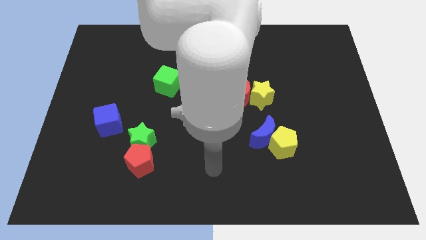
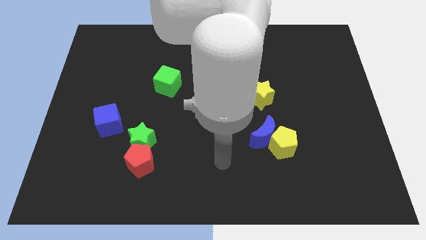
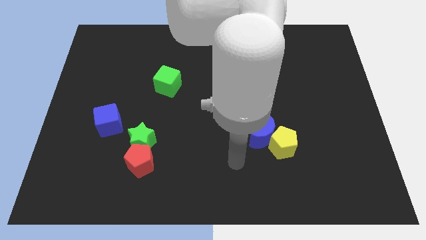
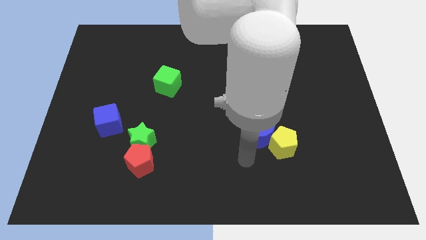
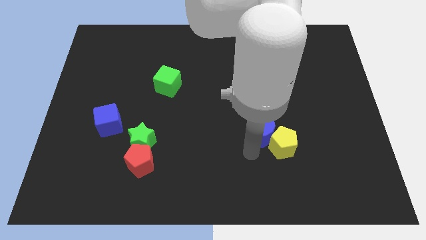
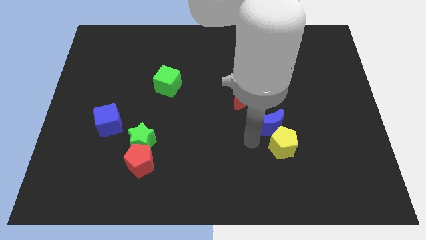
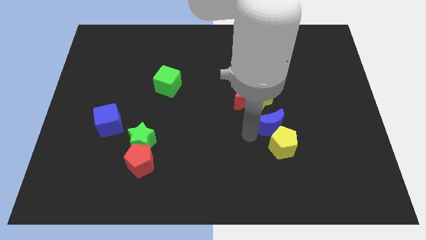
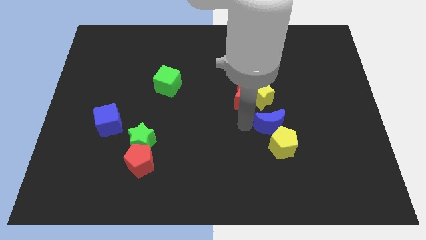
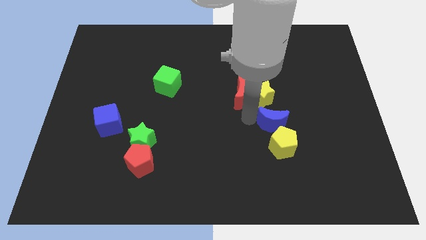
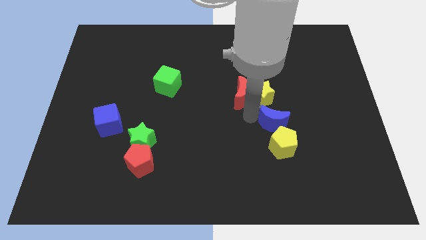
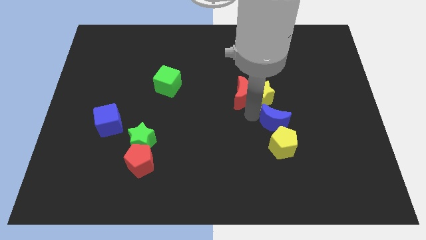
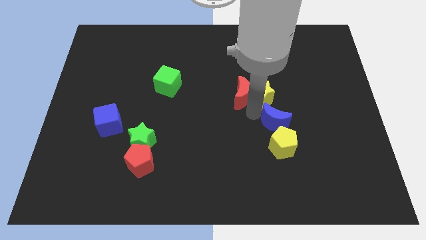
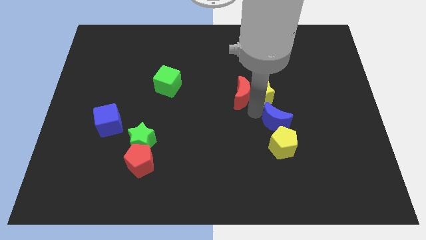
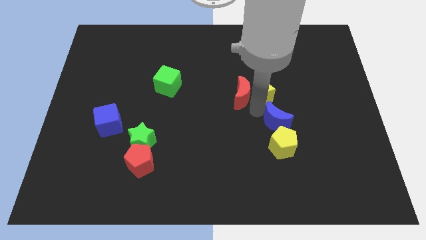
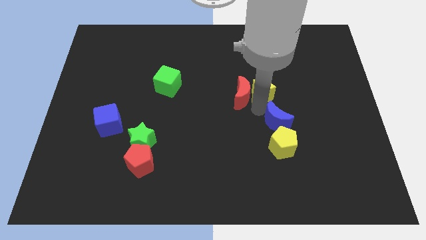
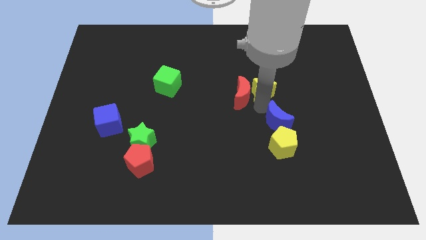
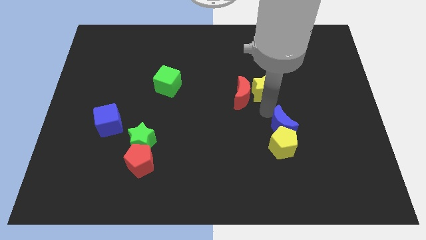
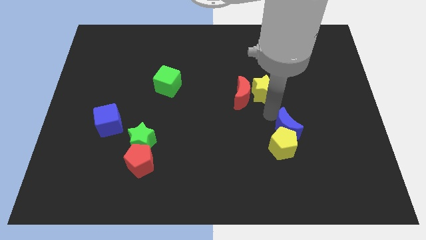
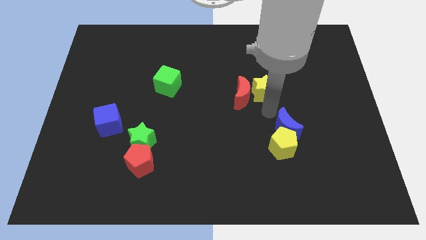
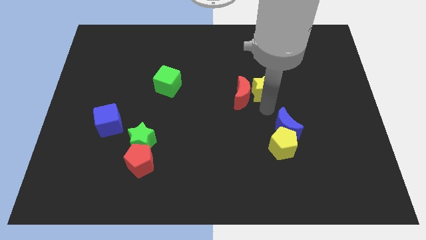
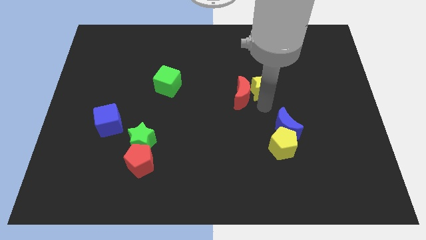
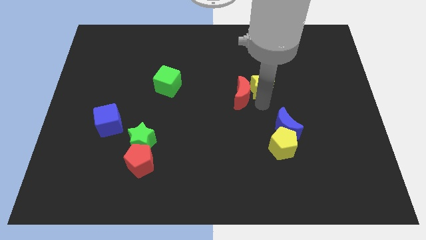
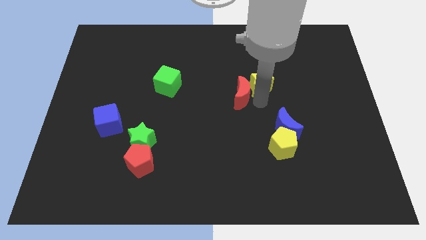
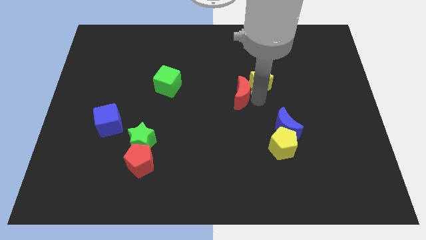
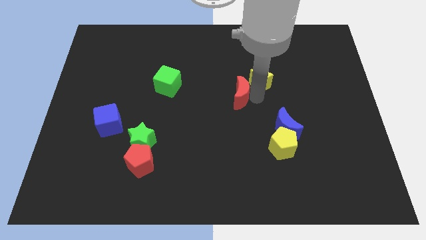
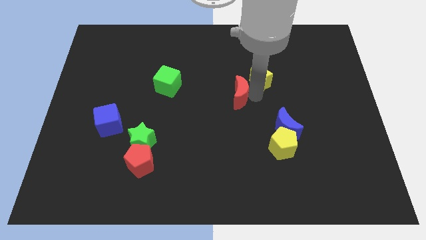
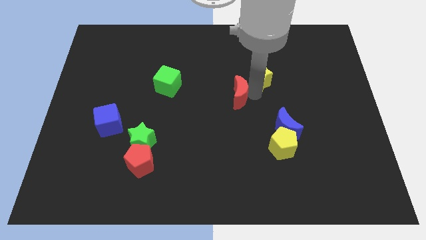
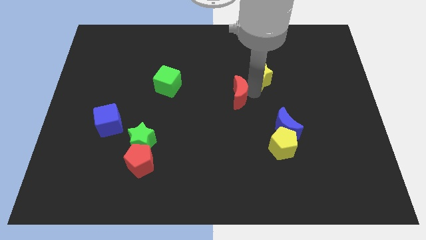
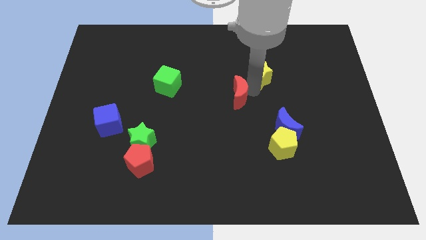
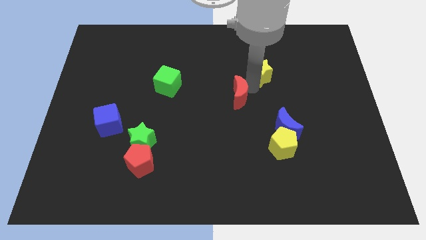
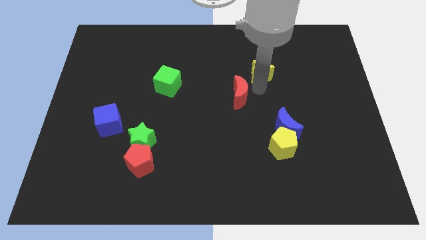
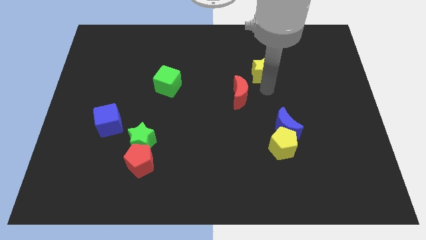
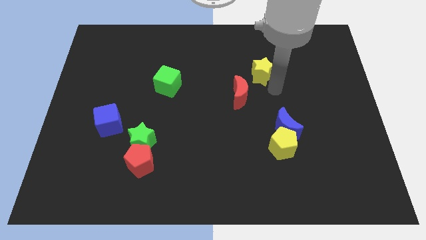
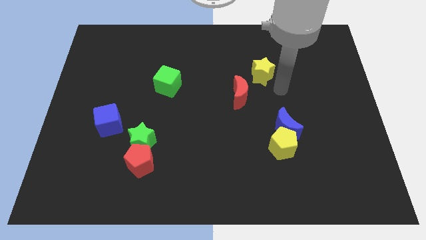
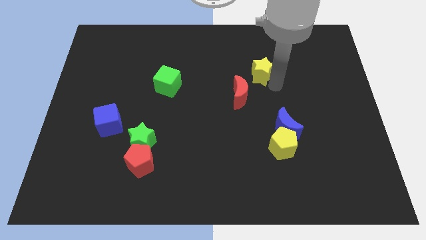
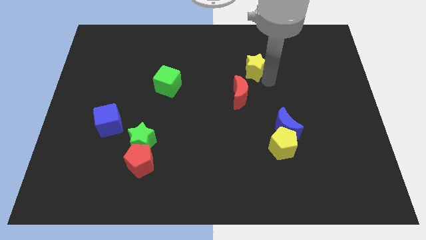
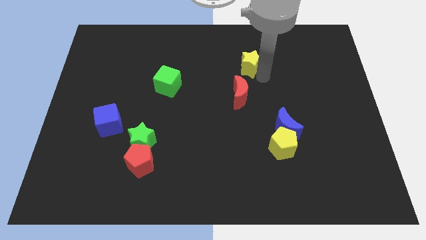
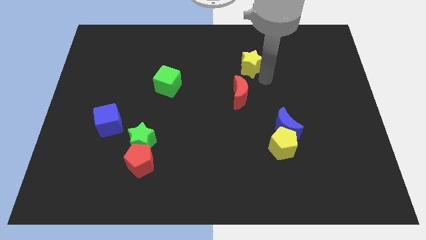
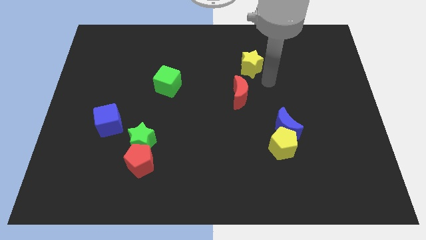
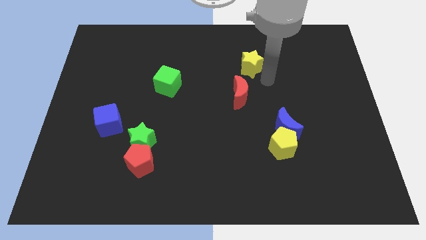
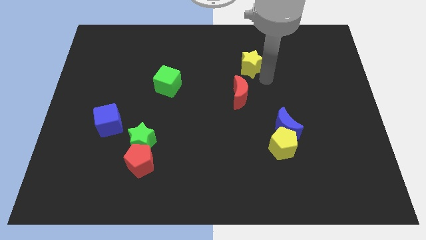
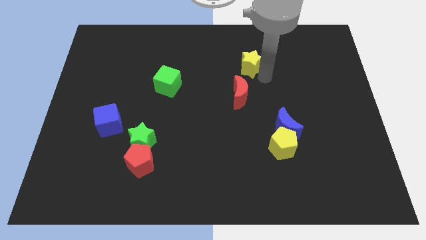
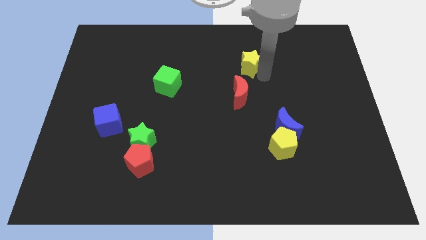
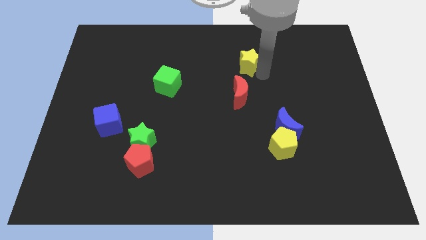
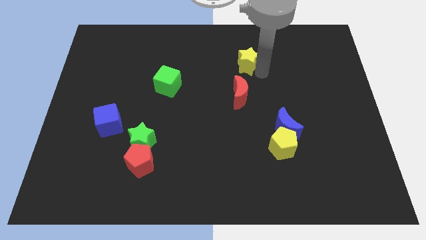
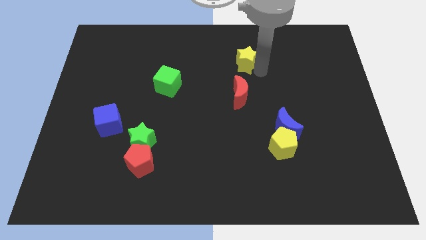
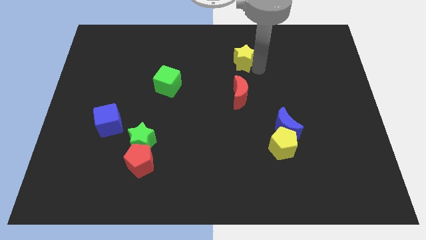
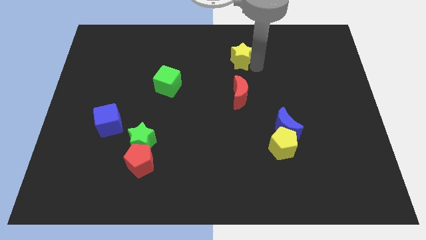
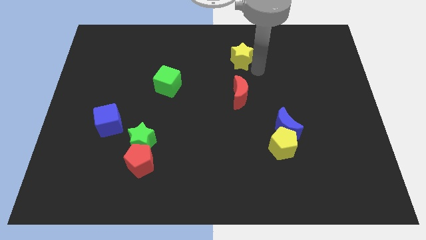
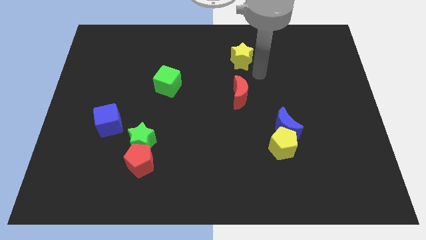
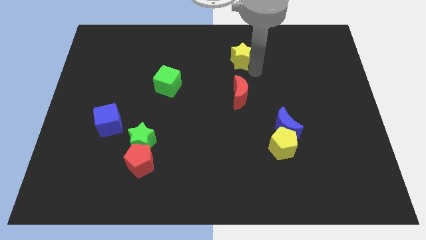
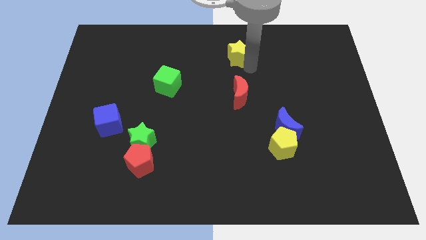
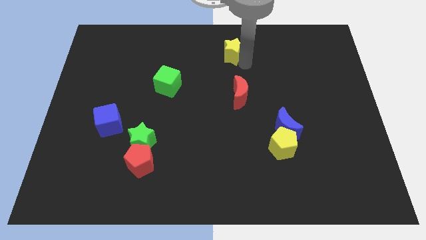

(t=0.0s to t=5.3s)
put the yellow star to the top

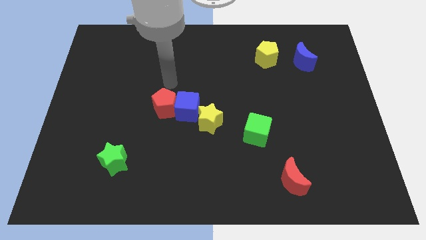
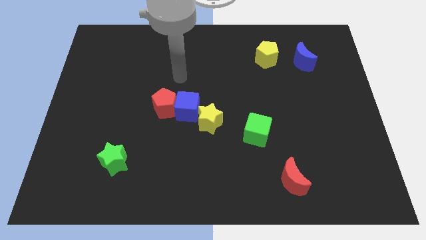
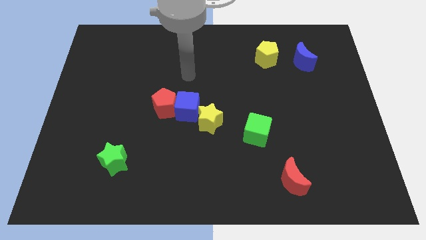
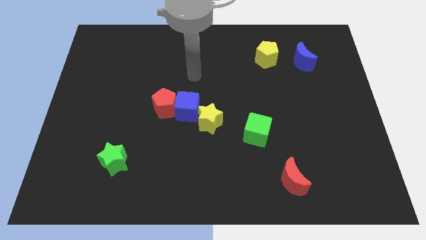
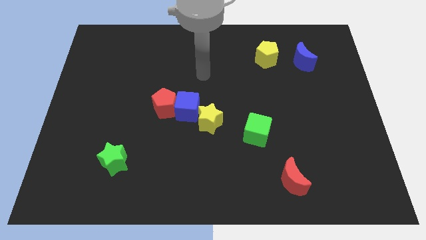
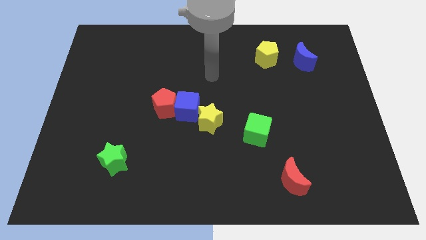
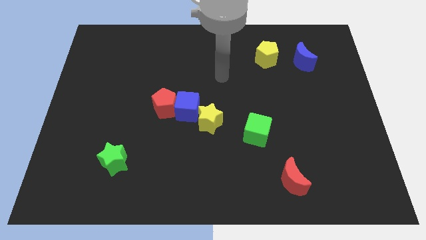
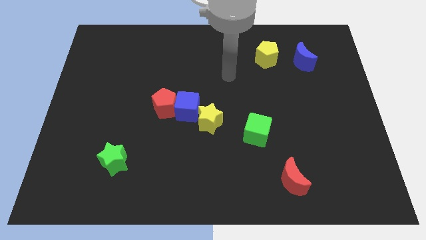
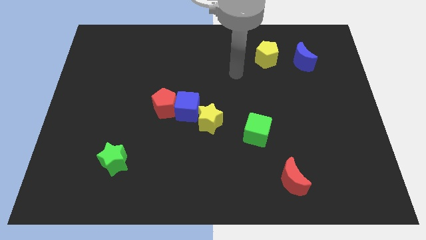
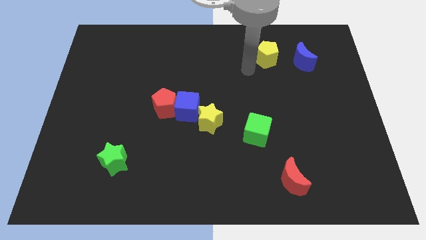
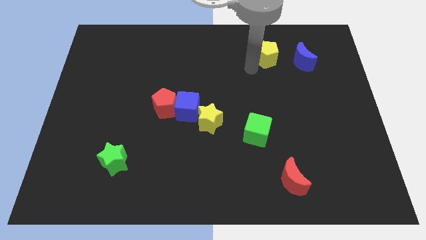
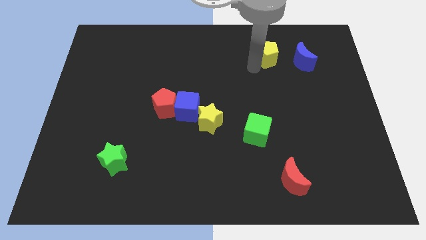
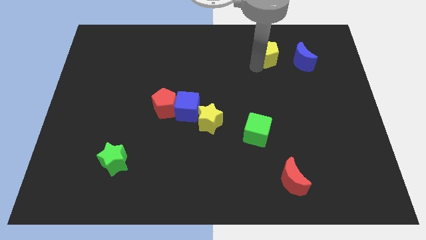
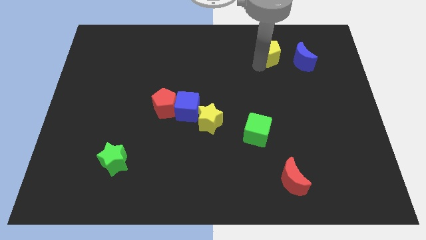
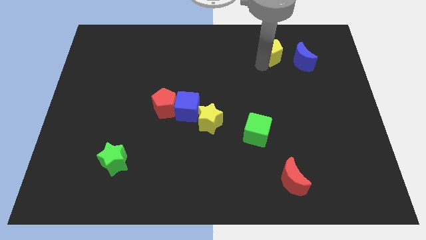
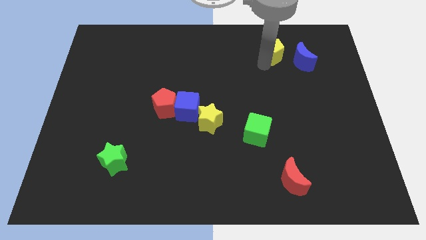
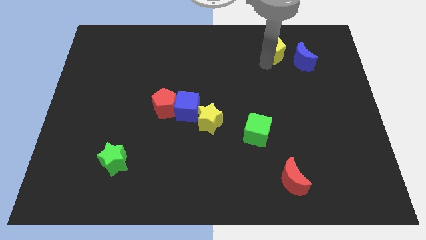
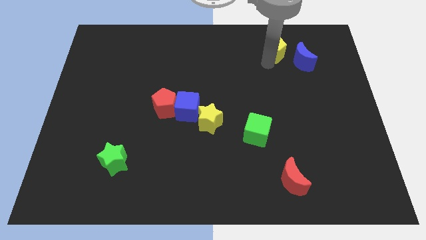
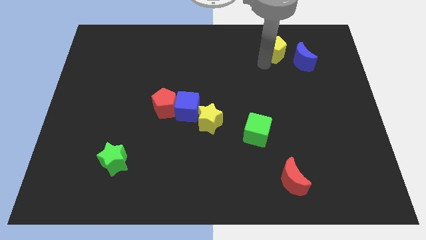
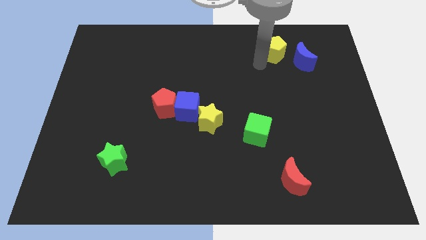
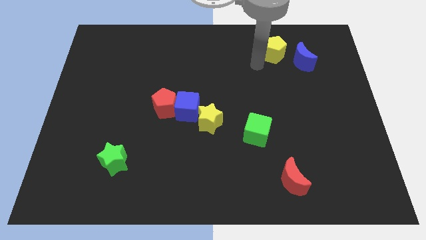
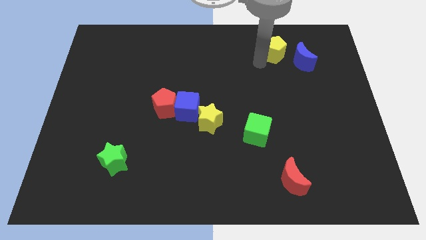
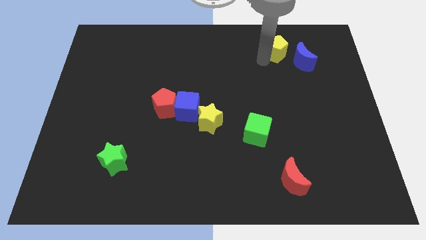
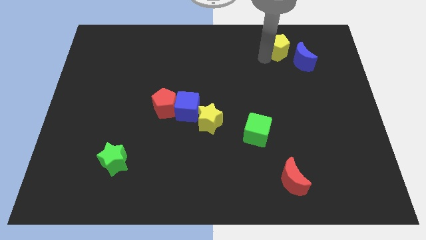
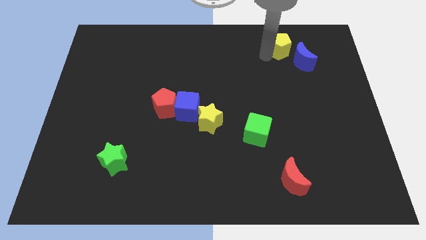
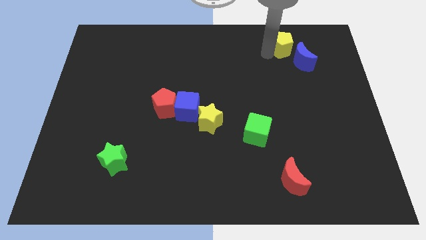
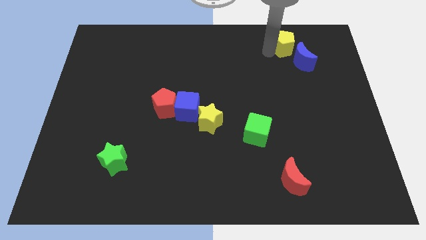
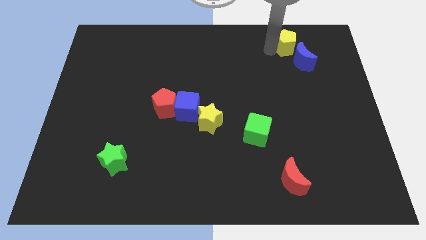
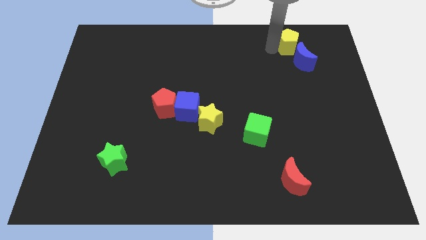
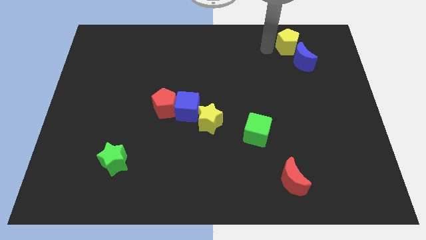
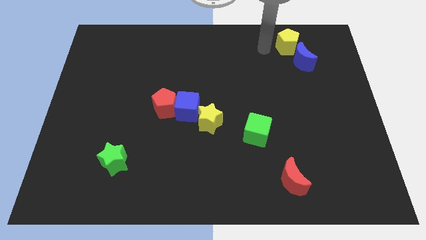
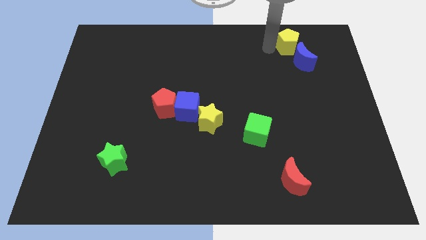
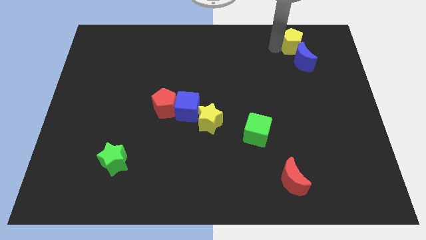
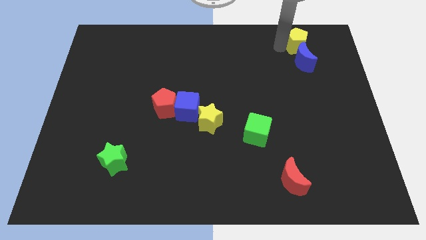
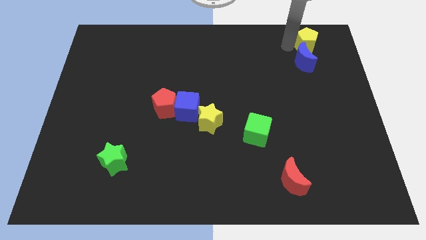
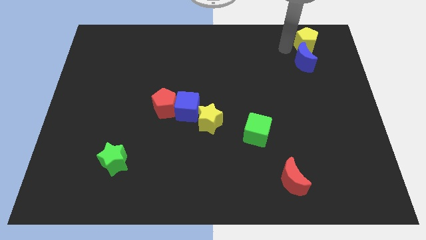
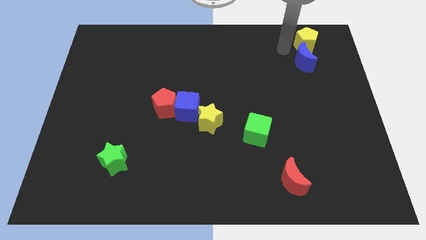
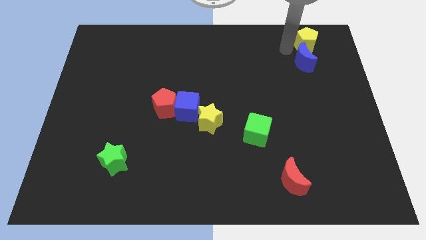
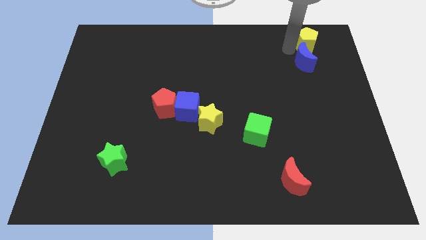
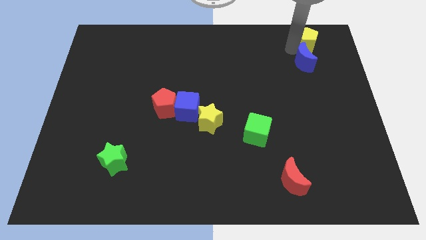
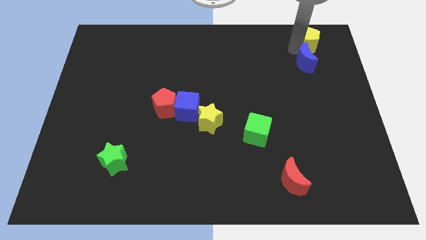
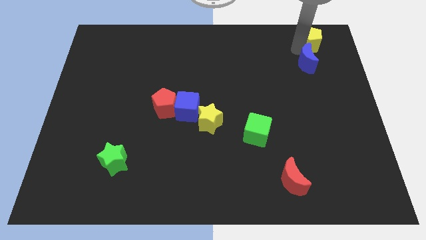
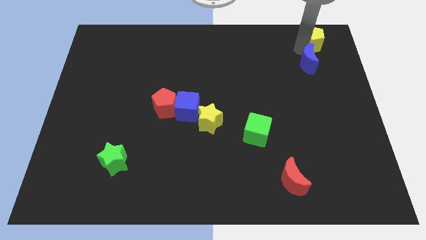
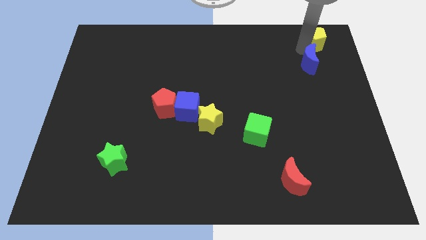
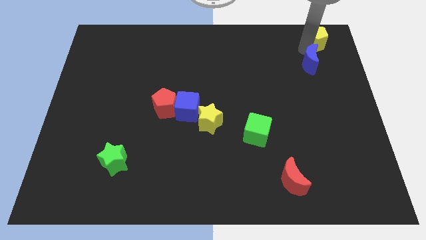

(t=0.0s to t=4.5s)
push the yellow pentagon to the top right
